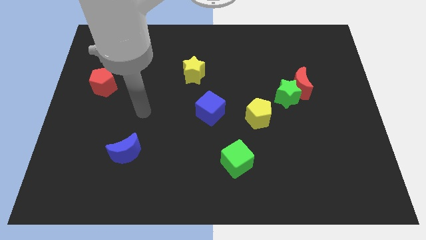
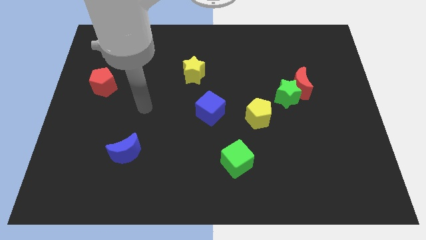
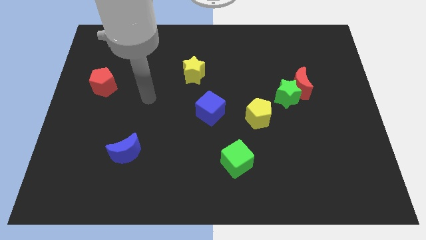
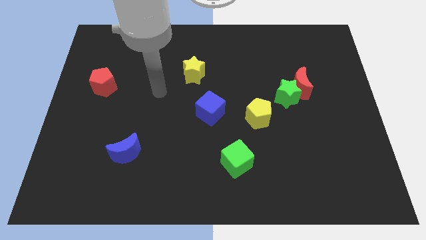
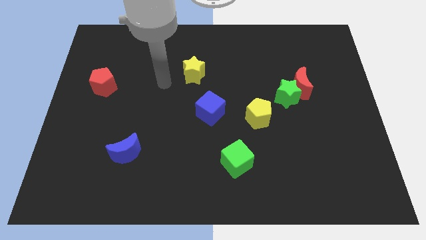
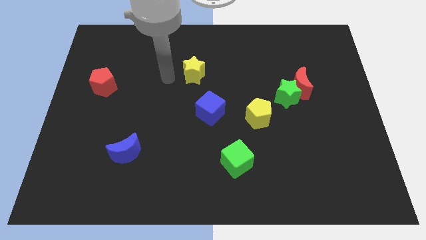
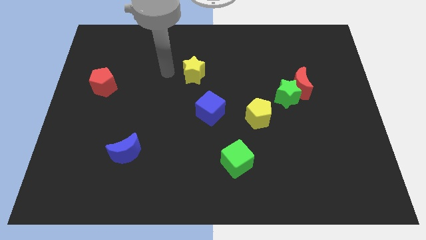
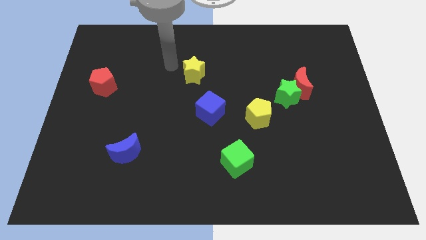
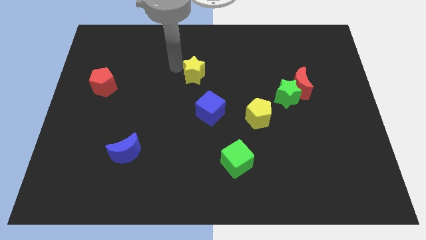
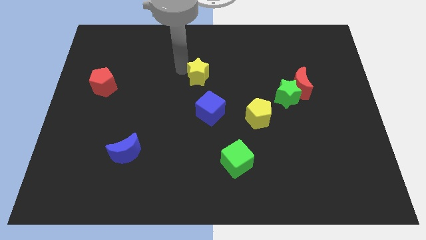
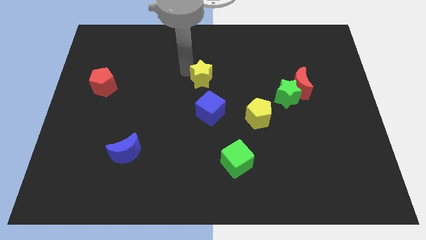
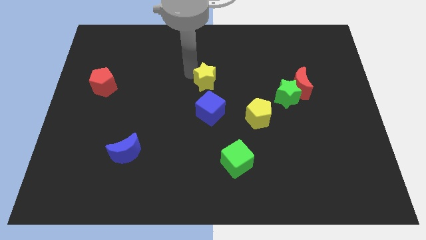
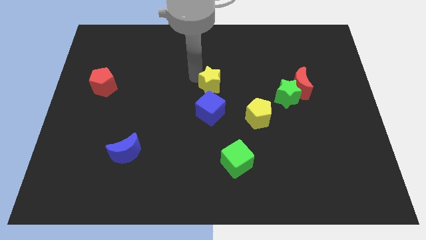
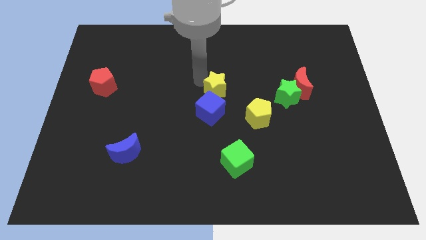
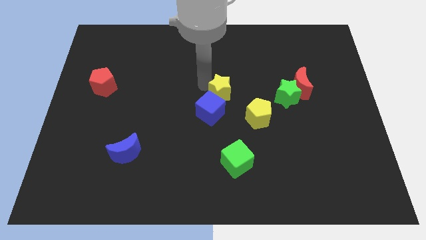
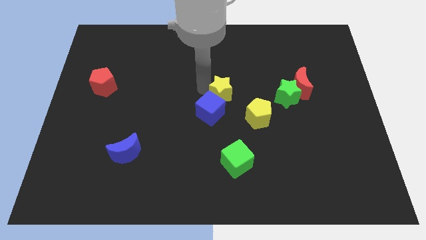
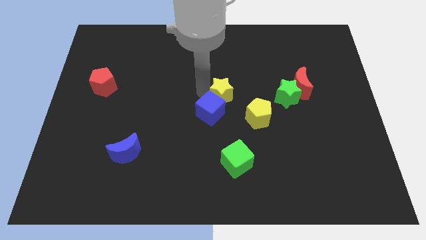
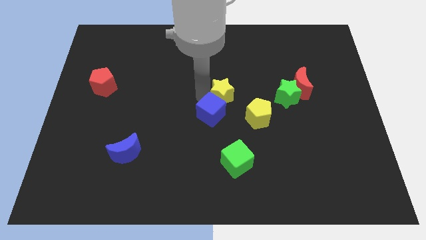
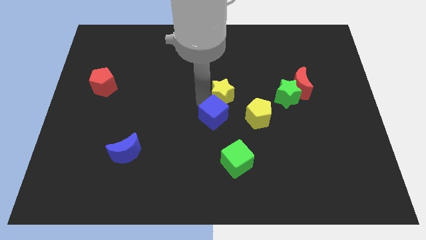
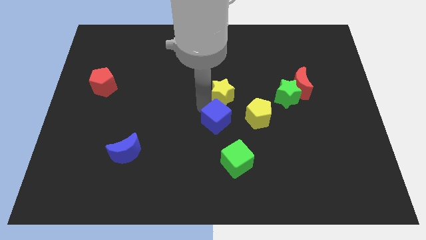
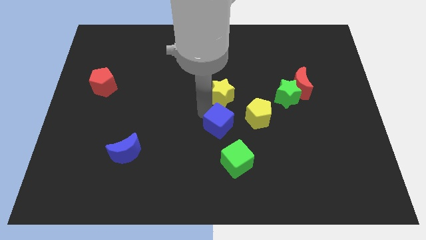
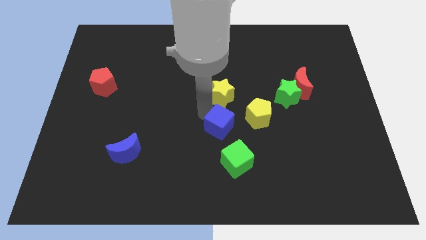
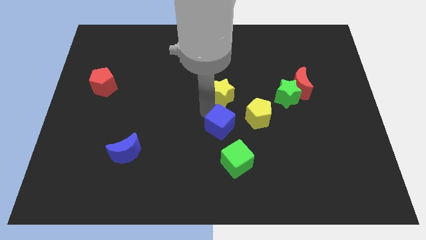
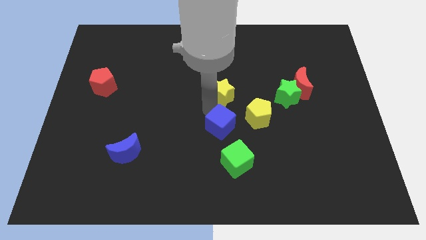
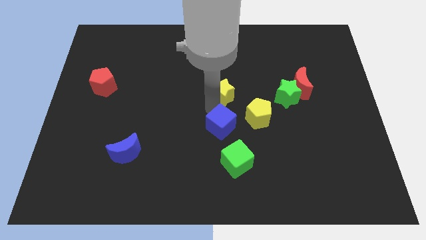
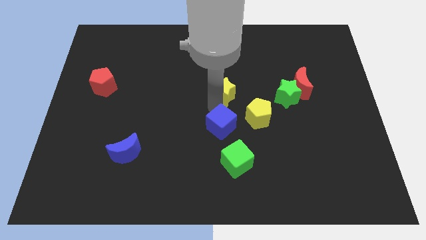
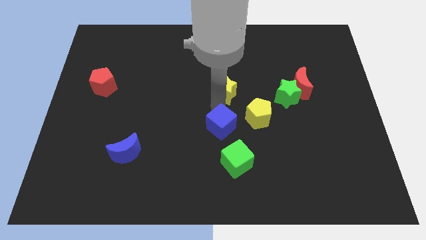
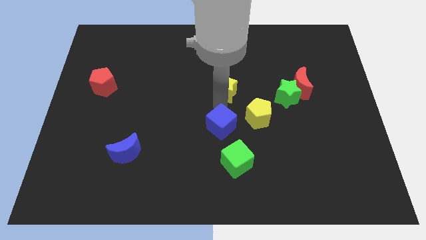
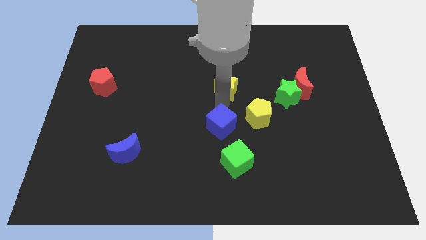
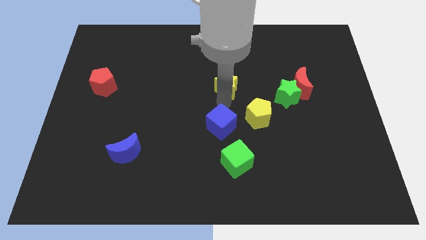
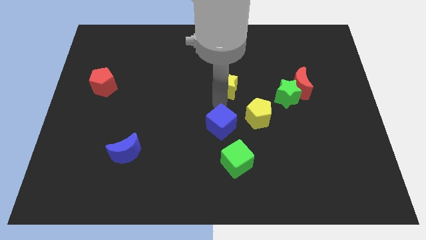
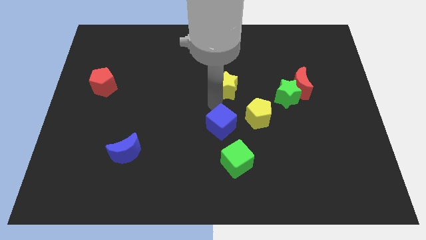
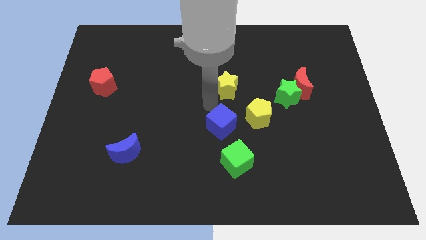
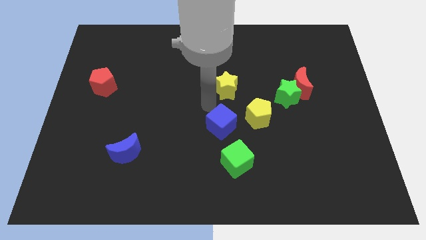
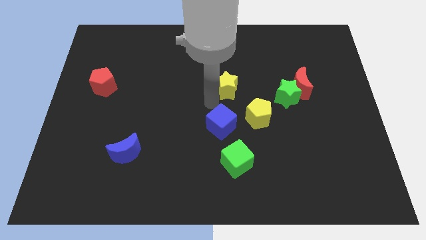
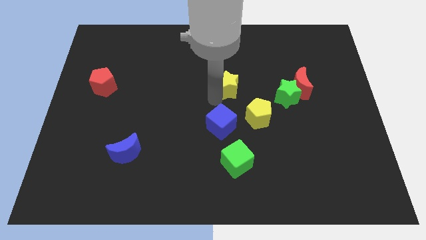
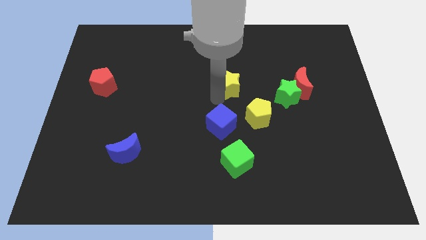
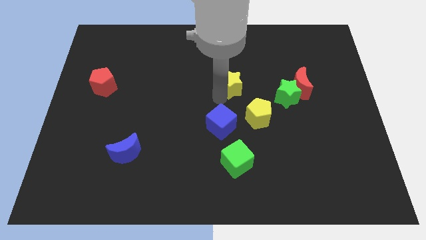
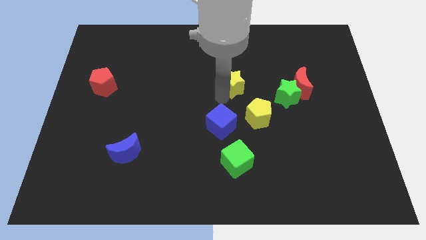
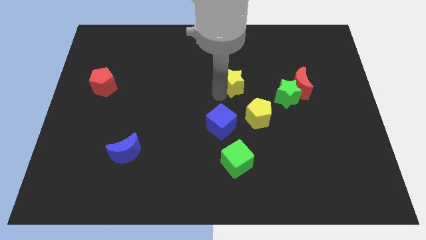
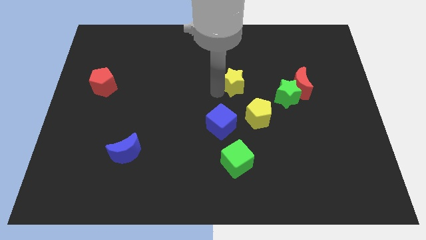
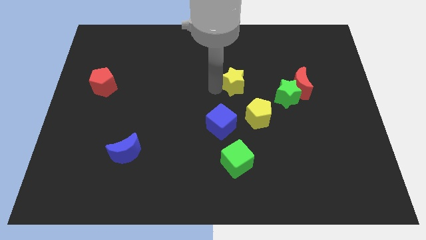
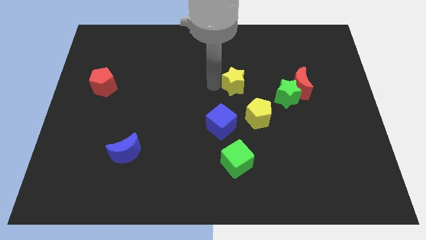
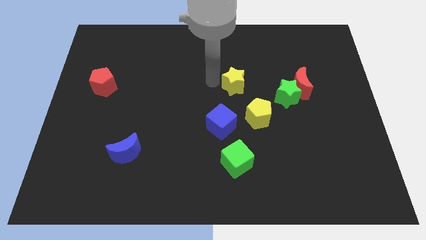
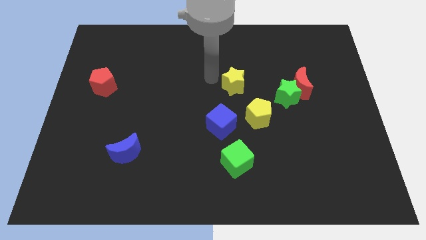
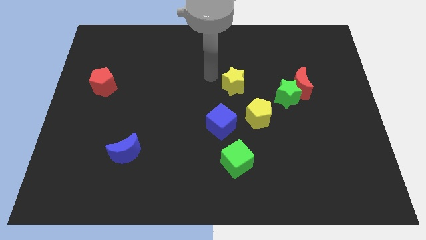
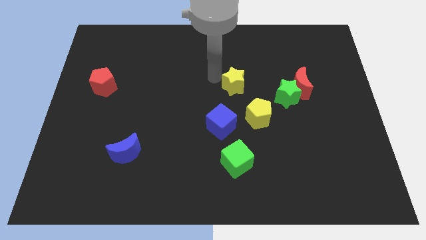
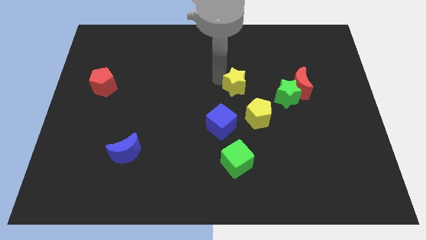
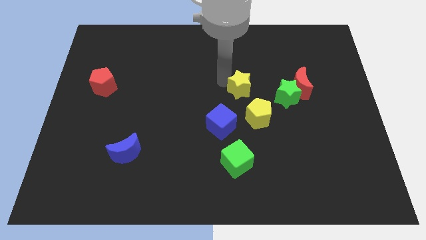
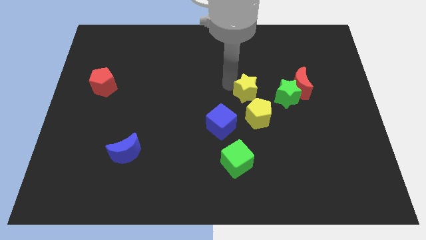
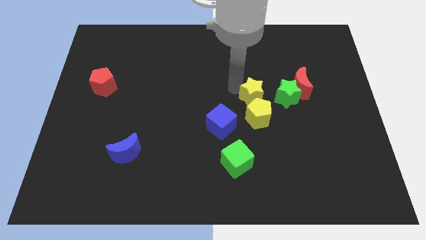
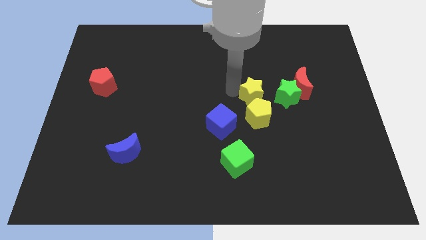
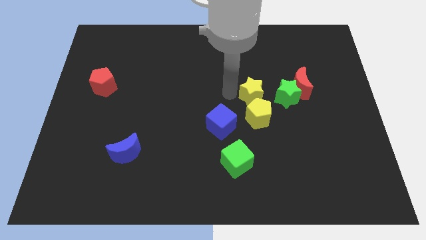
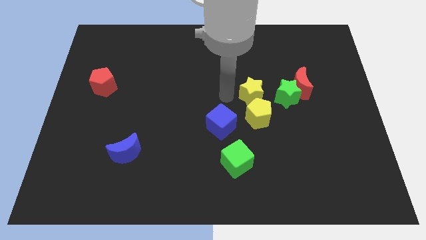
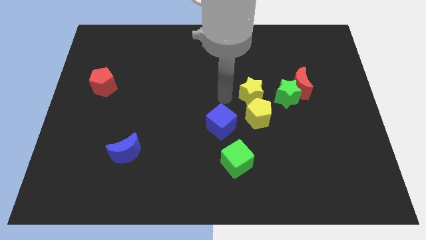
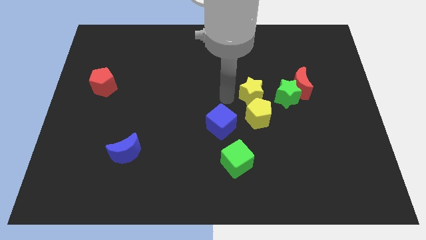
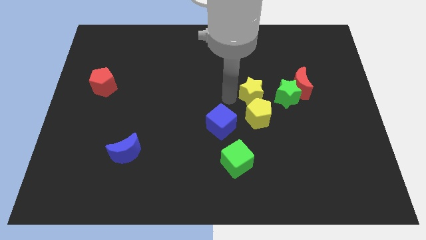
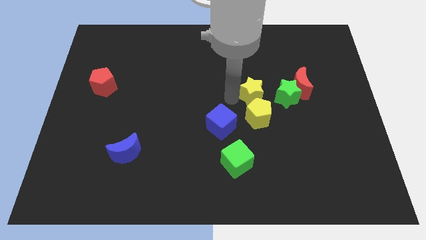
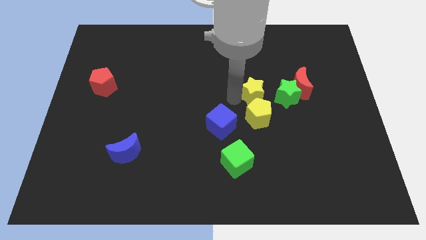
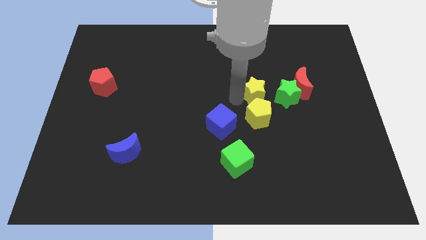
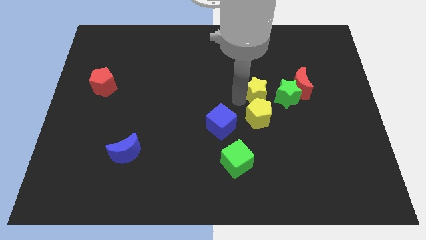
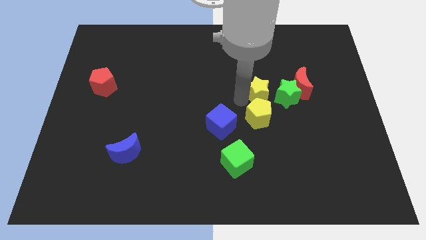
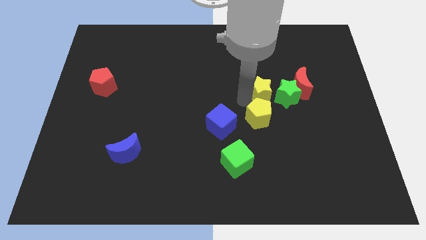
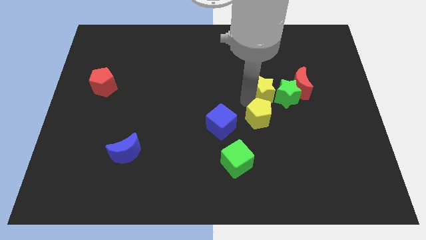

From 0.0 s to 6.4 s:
slide the yellow star close to the green star

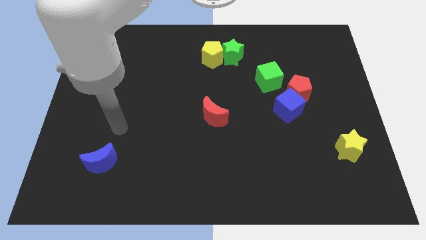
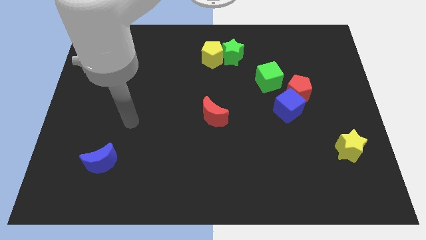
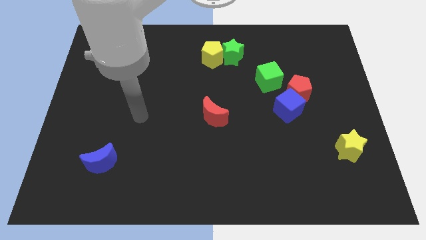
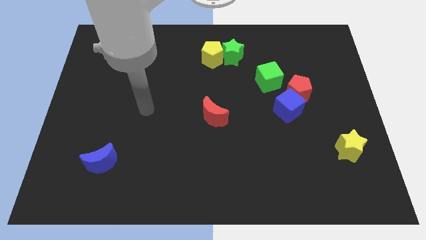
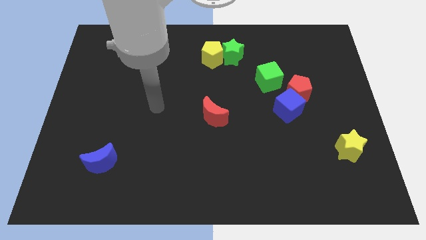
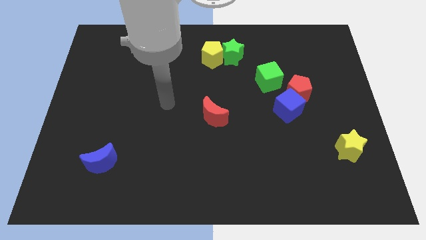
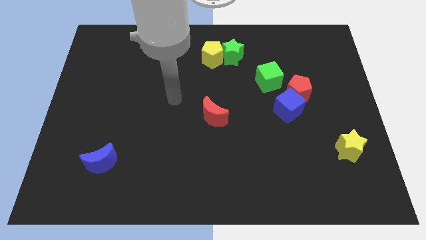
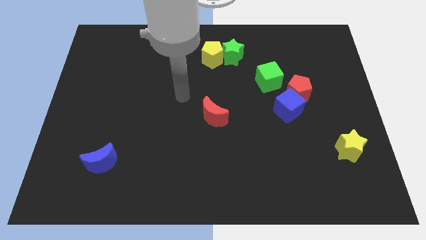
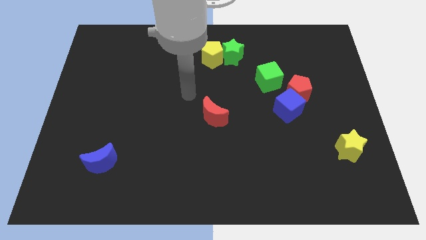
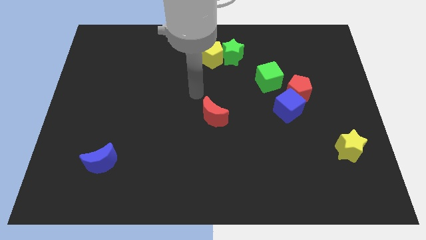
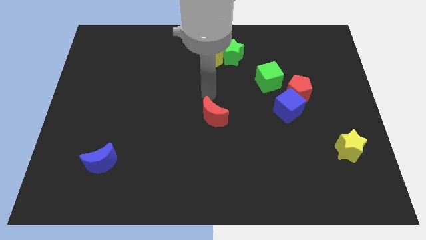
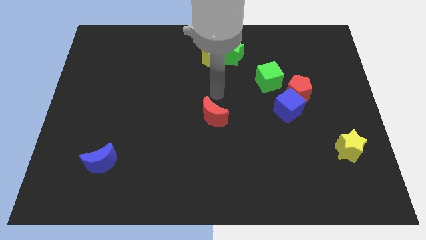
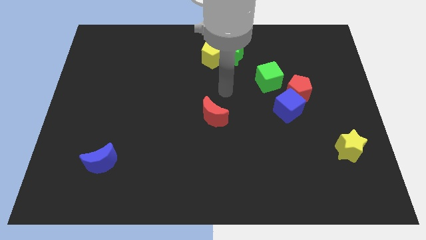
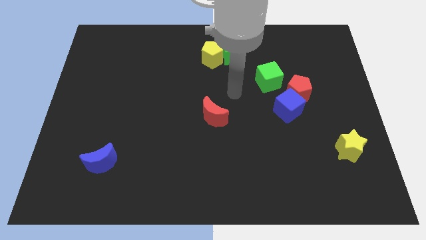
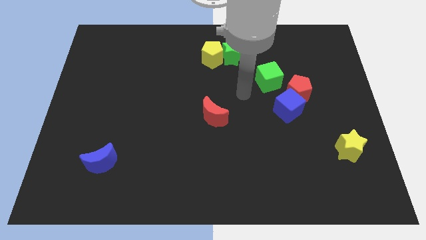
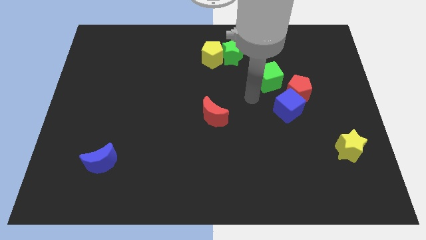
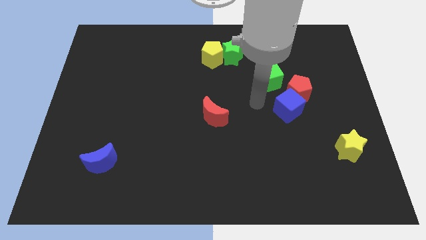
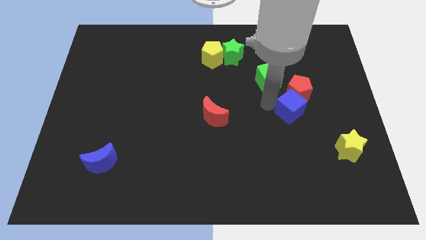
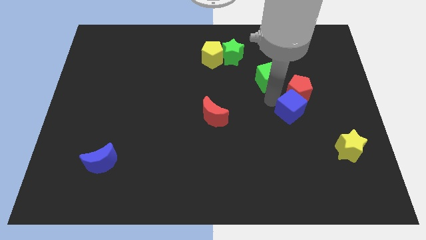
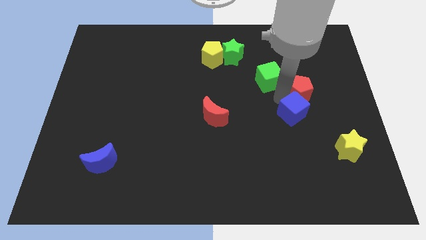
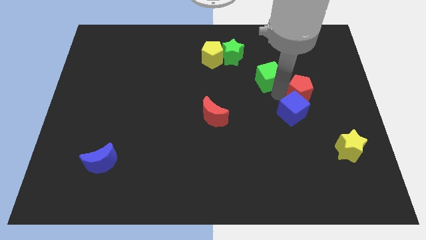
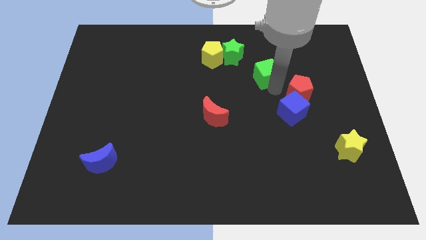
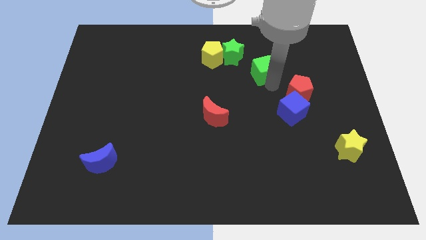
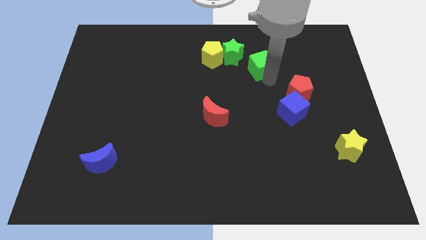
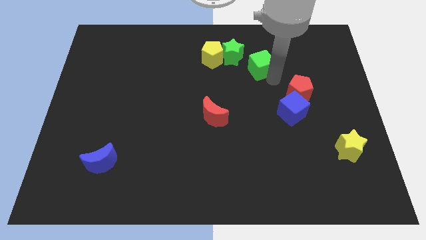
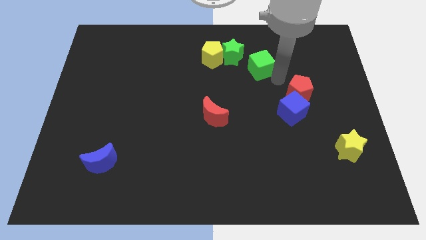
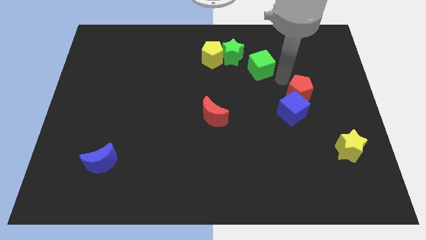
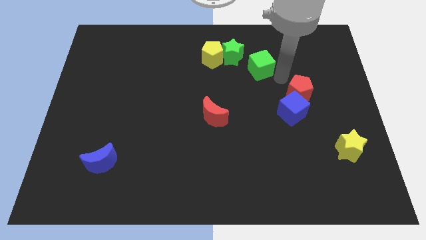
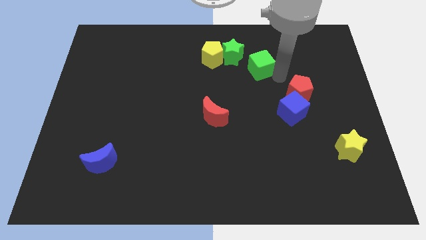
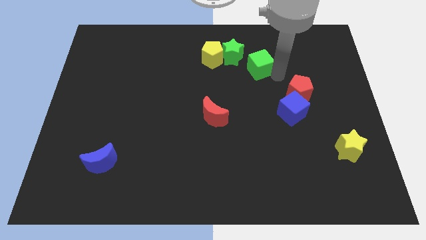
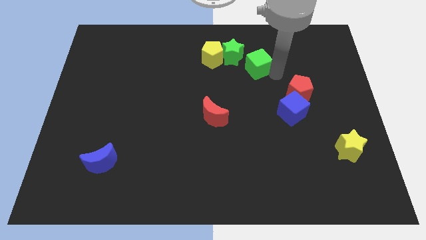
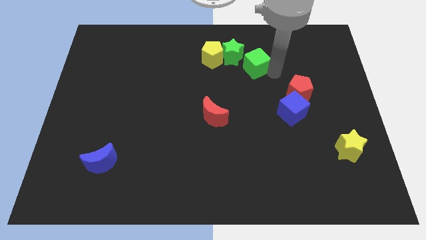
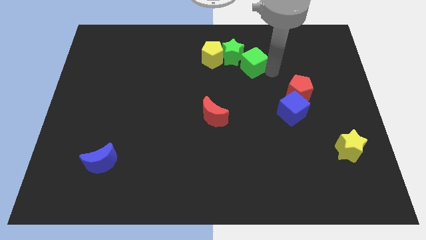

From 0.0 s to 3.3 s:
push the green cube towards the green star
